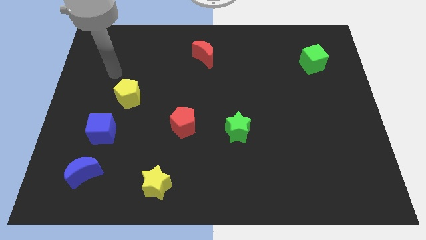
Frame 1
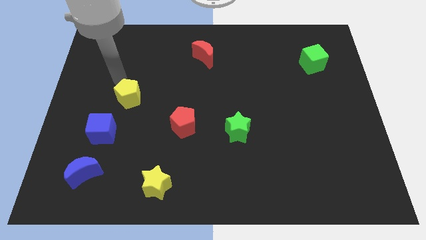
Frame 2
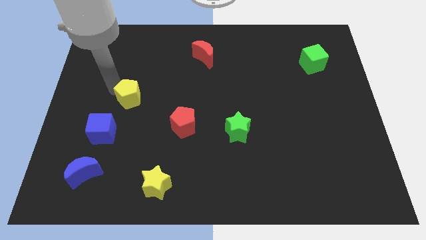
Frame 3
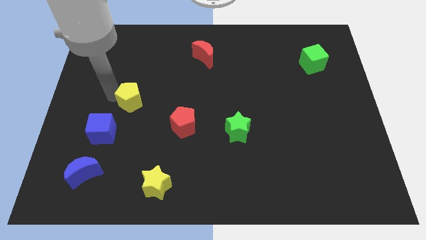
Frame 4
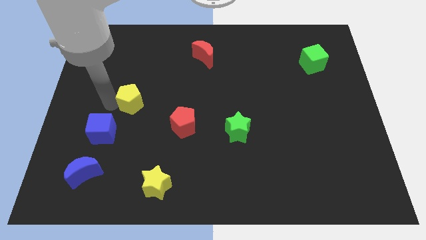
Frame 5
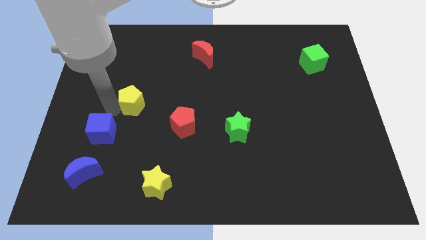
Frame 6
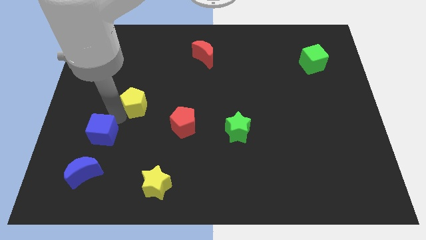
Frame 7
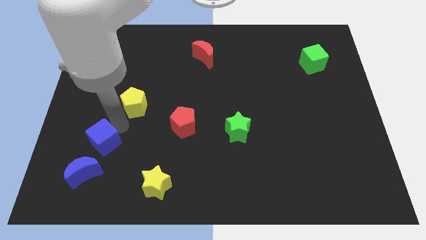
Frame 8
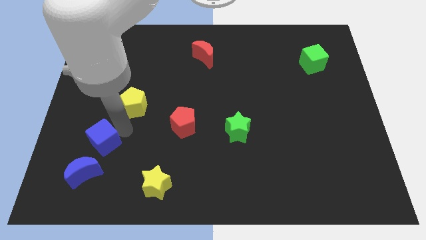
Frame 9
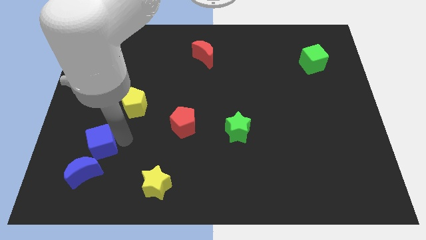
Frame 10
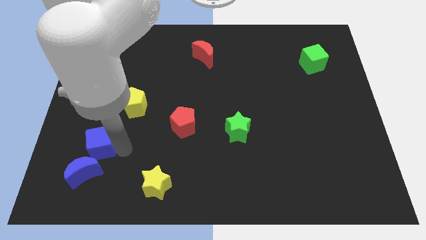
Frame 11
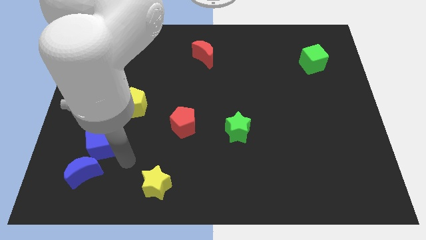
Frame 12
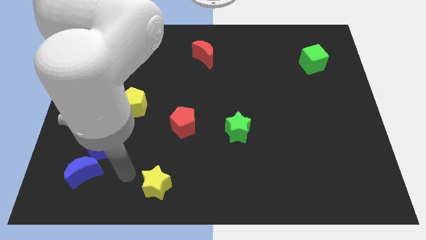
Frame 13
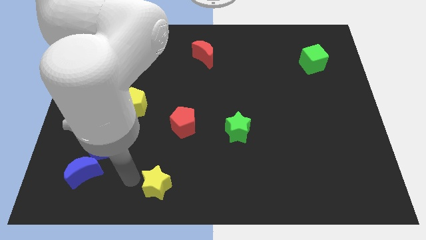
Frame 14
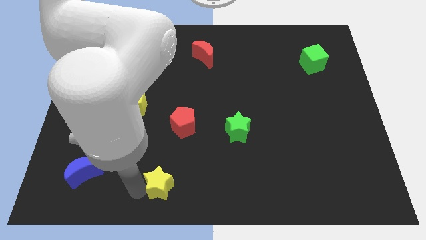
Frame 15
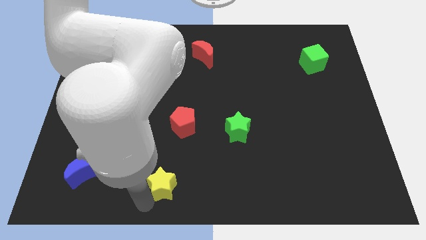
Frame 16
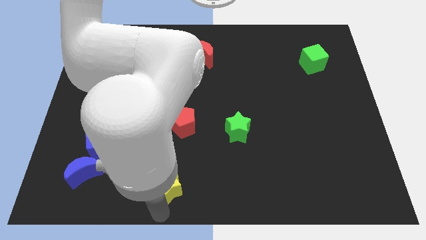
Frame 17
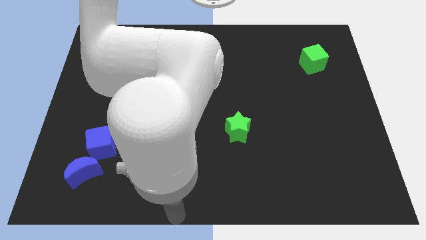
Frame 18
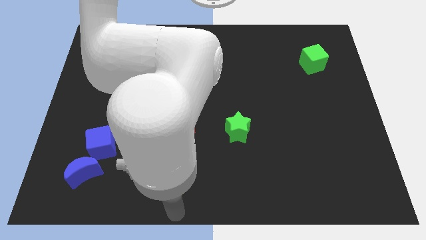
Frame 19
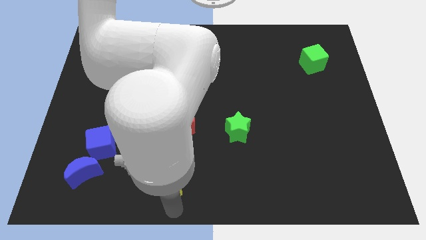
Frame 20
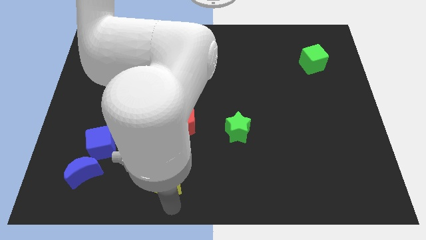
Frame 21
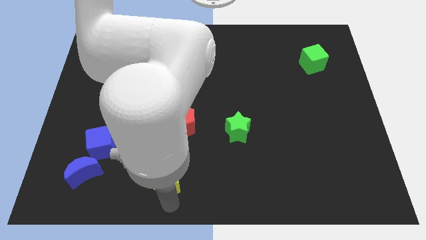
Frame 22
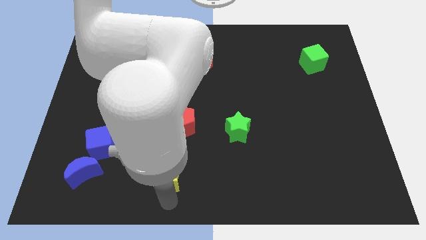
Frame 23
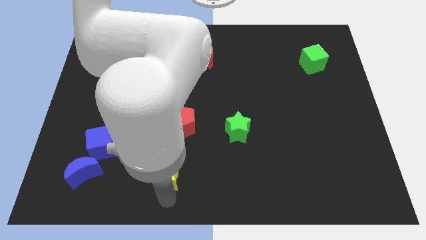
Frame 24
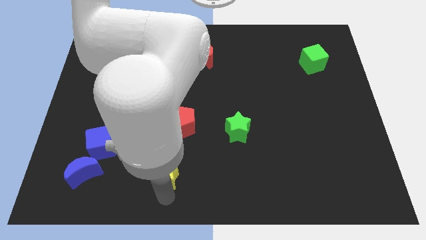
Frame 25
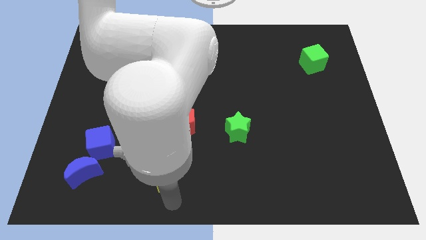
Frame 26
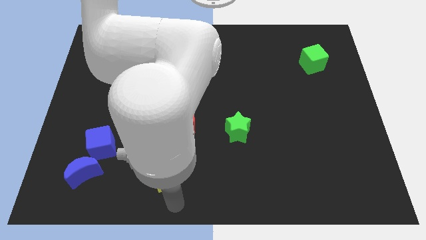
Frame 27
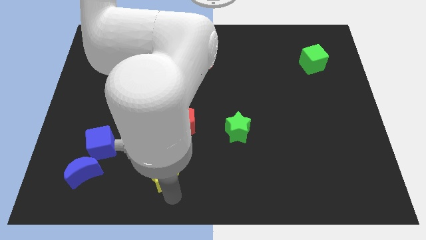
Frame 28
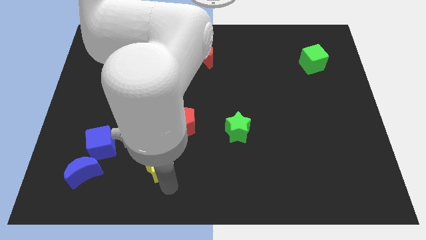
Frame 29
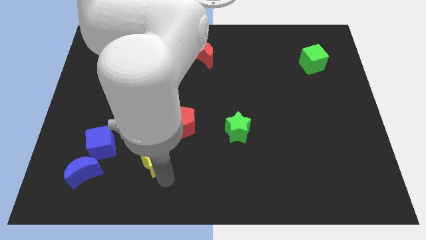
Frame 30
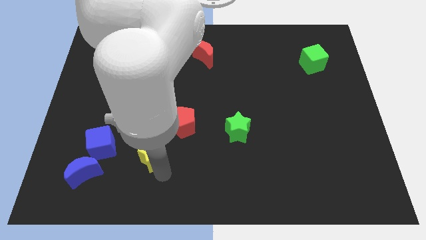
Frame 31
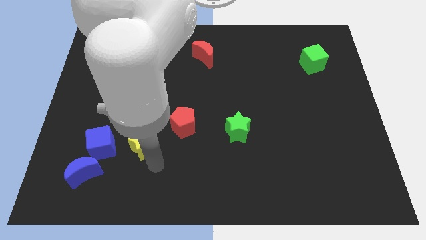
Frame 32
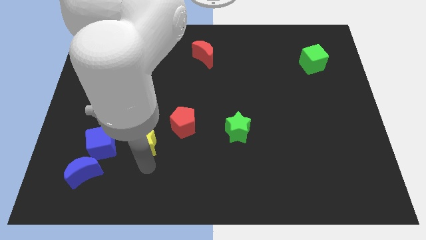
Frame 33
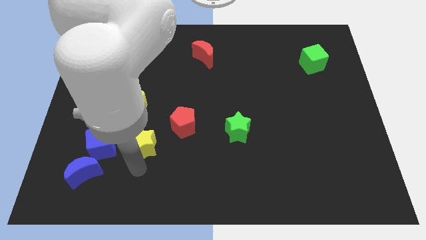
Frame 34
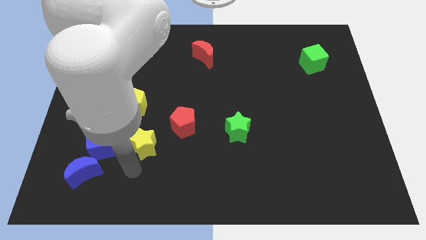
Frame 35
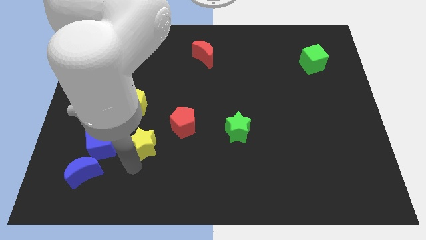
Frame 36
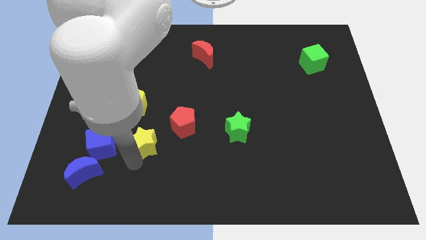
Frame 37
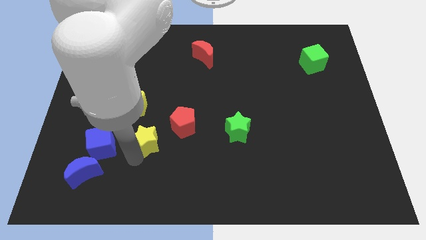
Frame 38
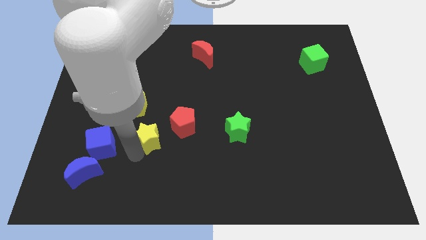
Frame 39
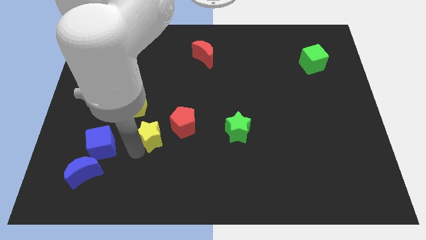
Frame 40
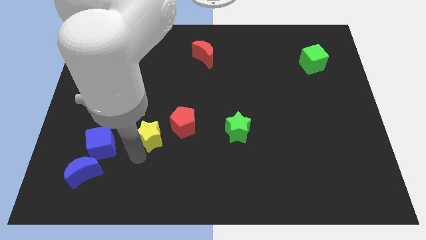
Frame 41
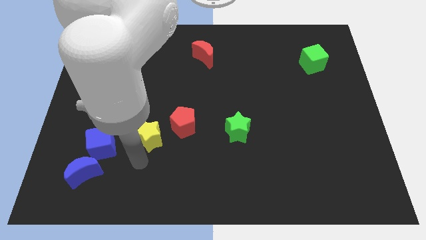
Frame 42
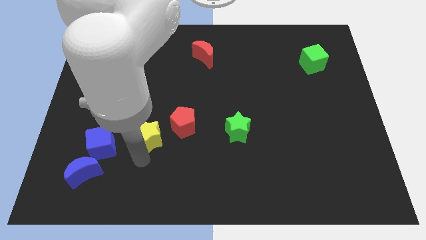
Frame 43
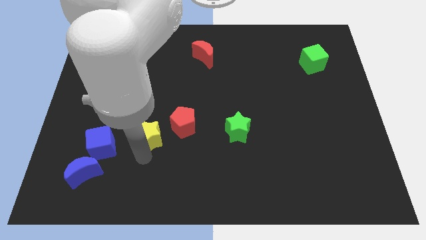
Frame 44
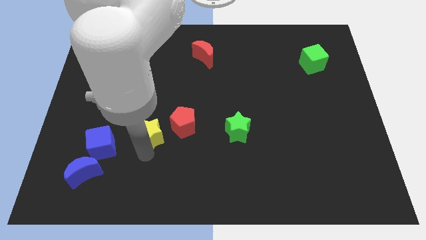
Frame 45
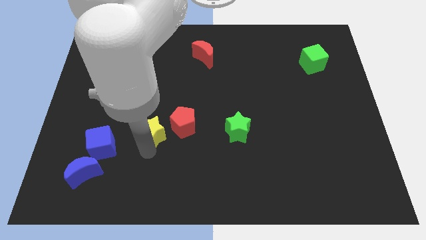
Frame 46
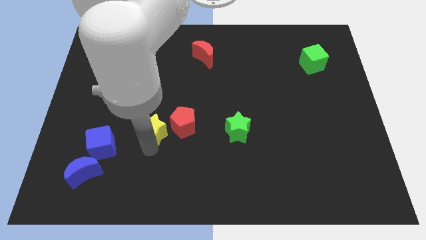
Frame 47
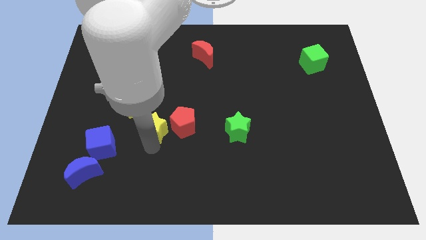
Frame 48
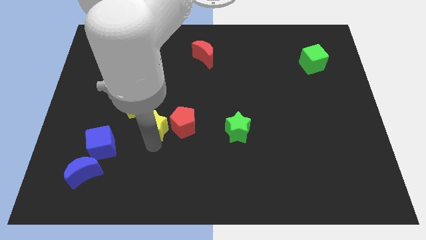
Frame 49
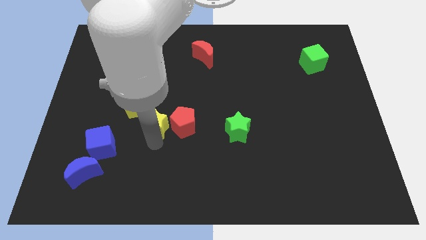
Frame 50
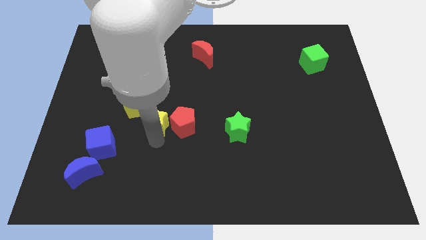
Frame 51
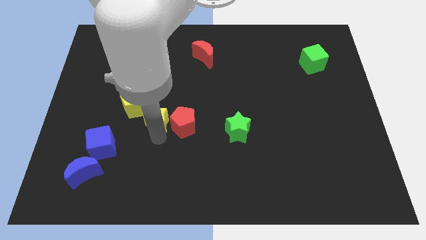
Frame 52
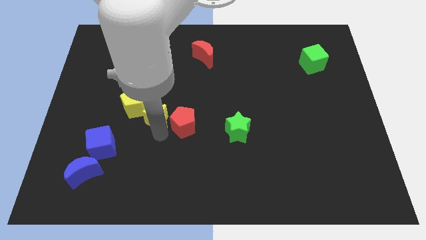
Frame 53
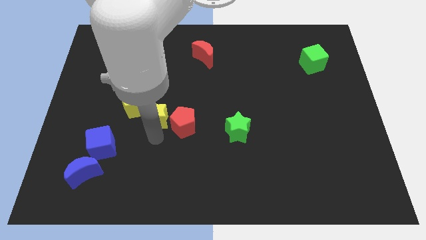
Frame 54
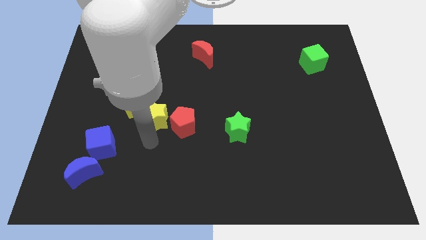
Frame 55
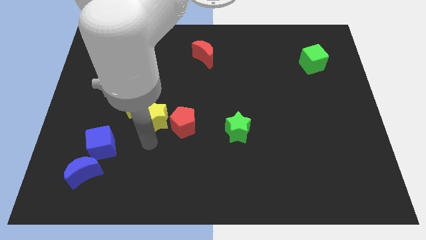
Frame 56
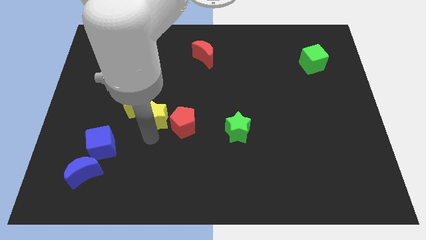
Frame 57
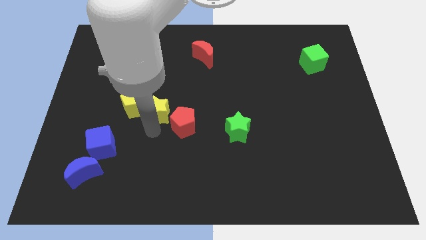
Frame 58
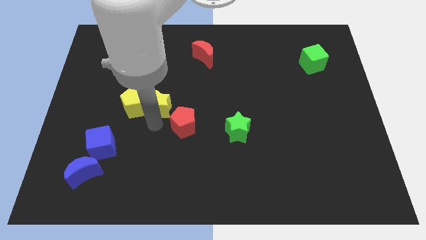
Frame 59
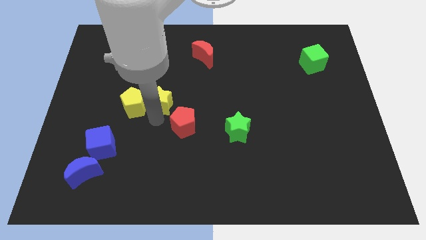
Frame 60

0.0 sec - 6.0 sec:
push the yellow star upwards

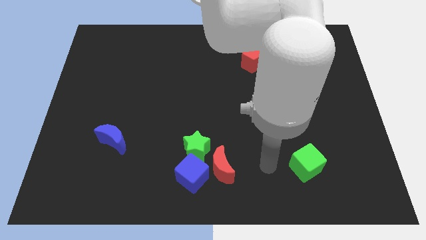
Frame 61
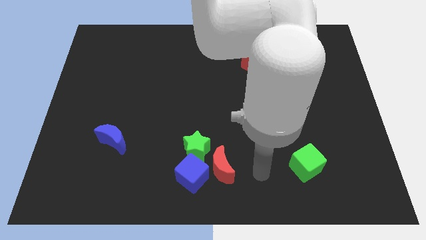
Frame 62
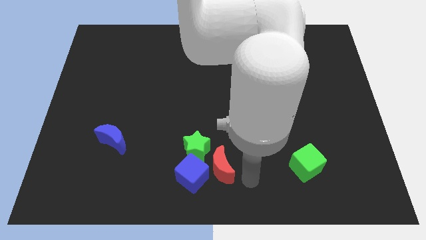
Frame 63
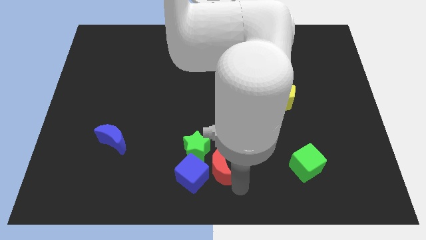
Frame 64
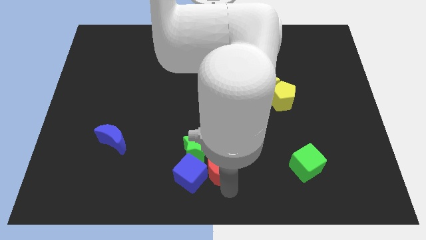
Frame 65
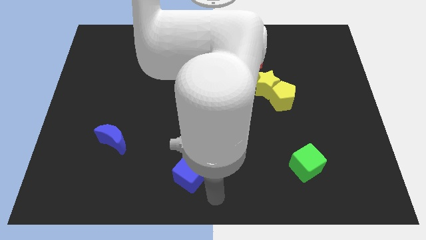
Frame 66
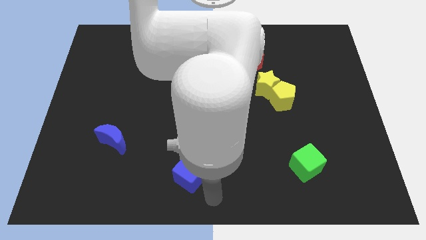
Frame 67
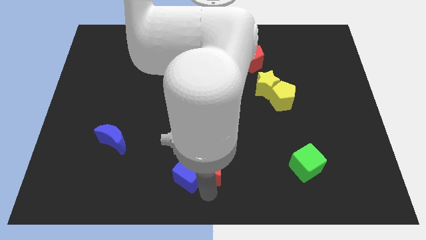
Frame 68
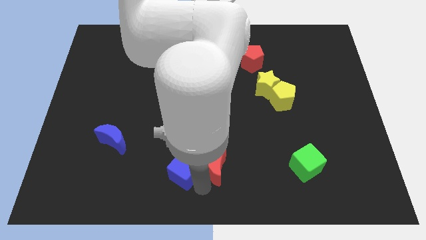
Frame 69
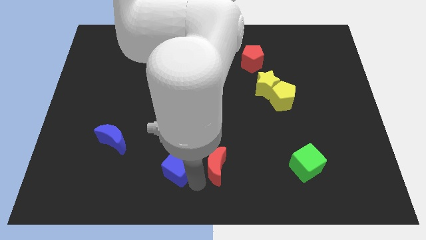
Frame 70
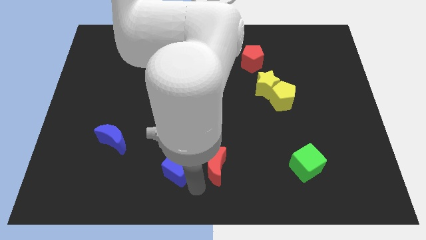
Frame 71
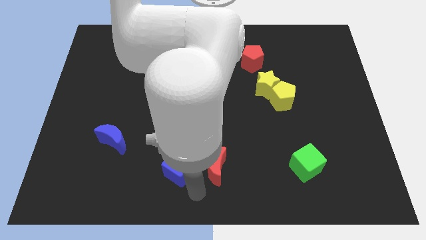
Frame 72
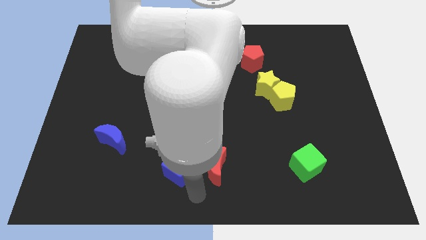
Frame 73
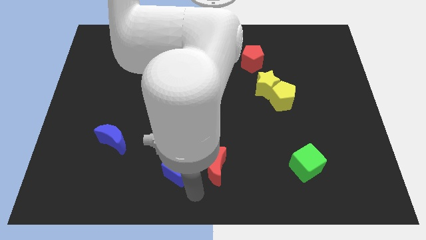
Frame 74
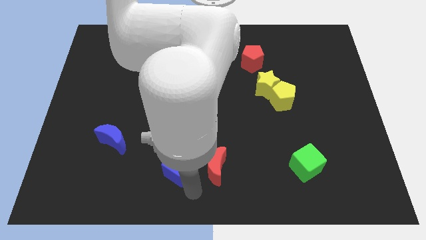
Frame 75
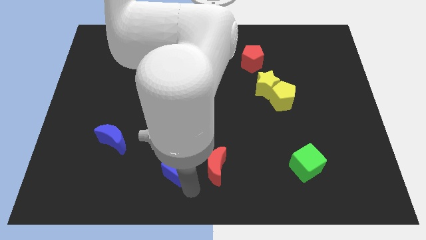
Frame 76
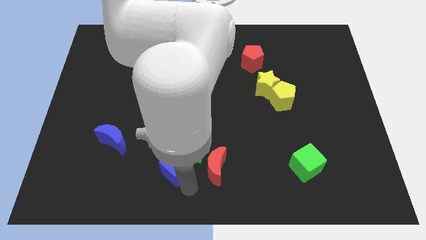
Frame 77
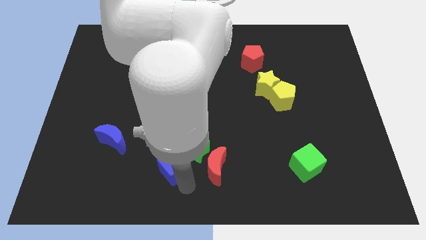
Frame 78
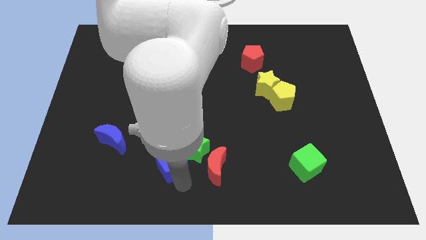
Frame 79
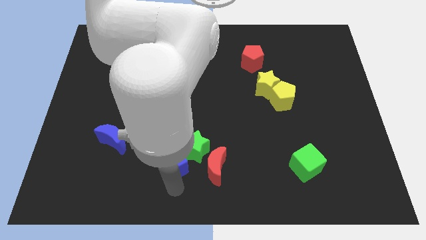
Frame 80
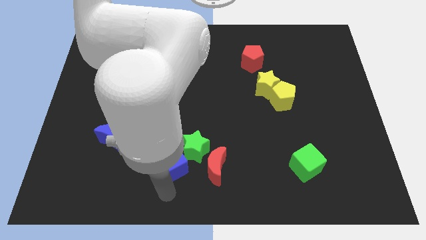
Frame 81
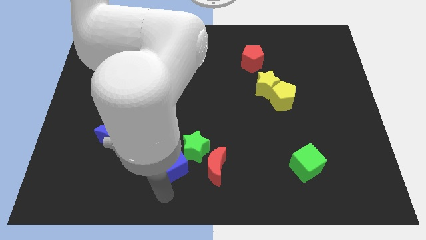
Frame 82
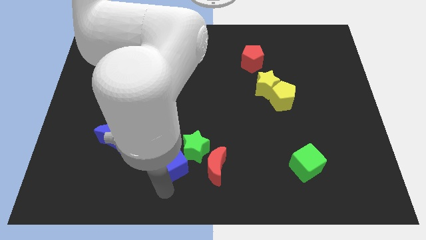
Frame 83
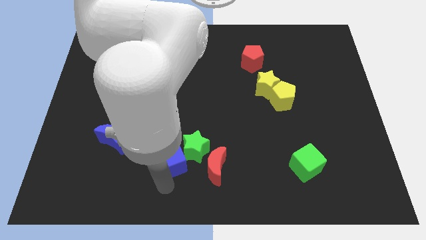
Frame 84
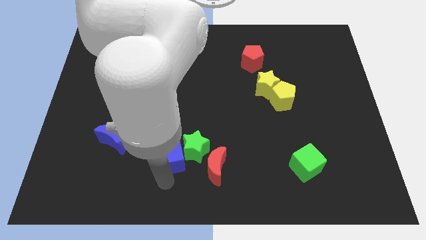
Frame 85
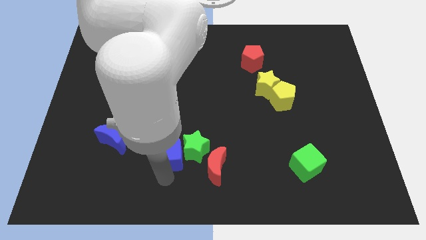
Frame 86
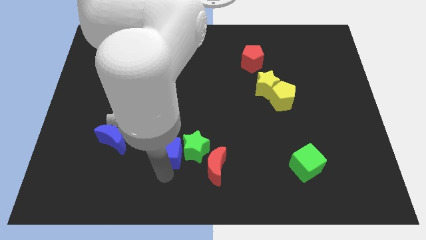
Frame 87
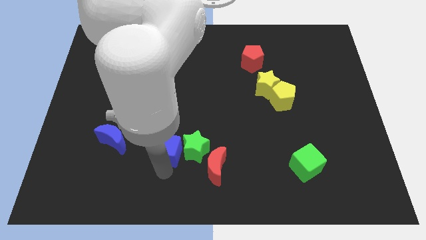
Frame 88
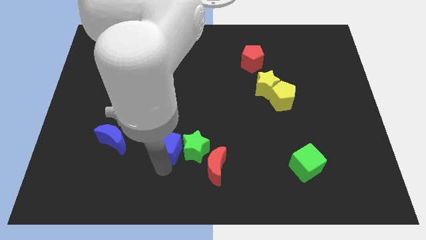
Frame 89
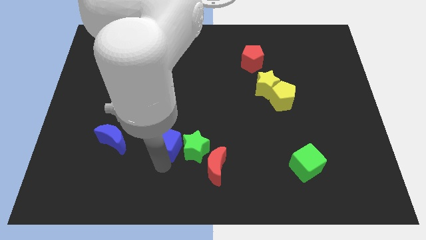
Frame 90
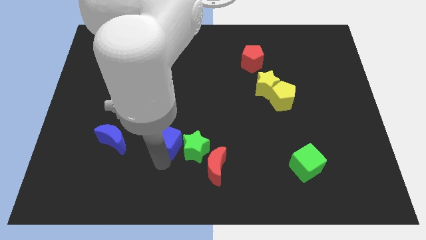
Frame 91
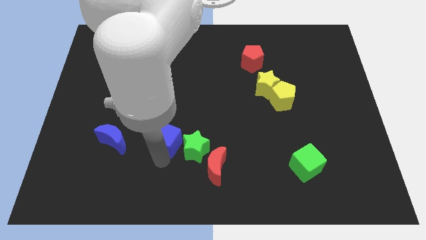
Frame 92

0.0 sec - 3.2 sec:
slightly move the blue cube upwards
